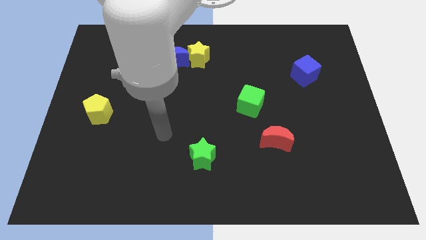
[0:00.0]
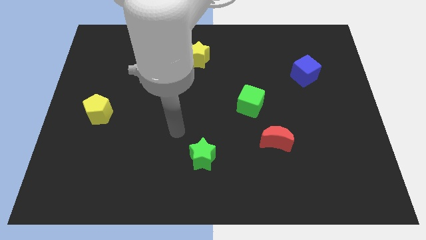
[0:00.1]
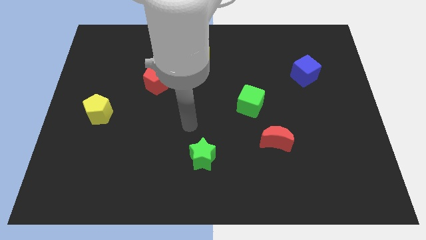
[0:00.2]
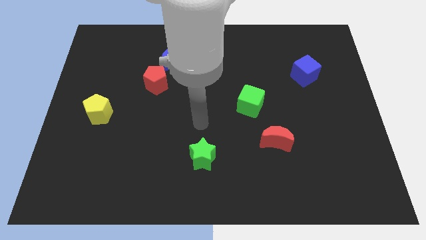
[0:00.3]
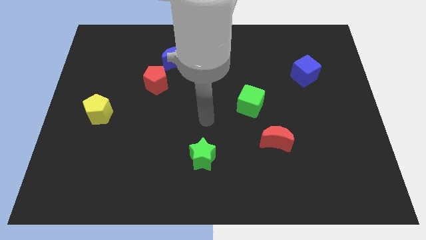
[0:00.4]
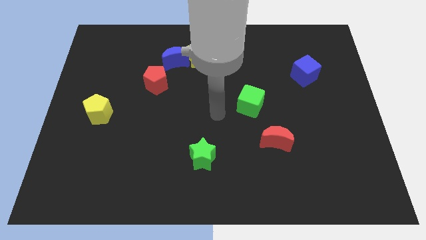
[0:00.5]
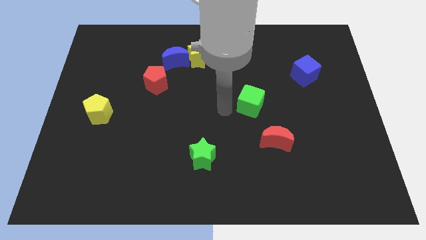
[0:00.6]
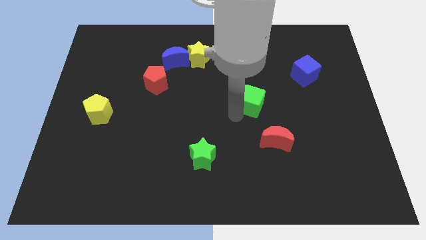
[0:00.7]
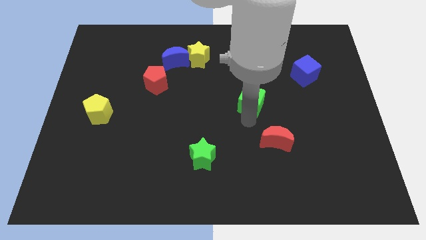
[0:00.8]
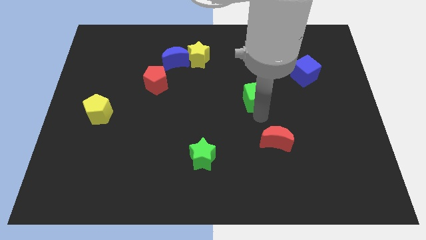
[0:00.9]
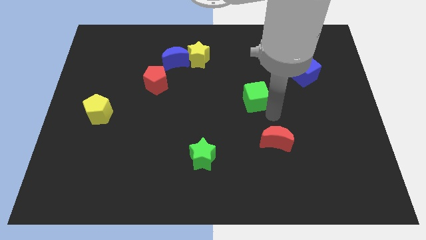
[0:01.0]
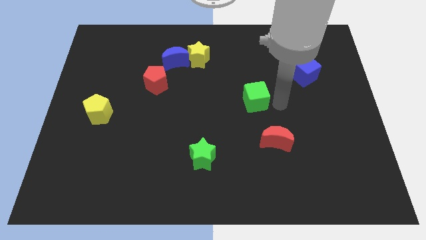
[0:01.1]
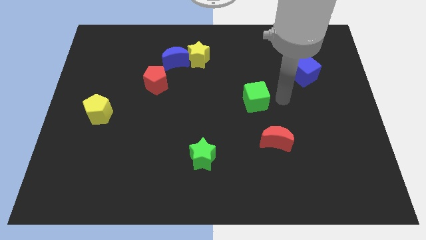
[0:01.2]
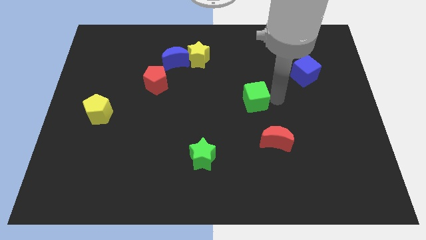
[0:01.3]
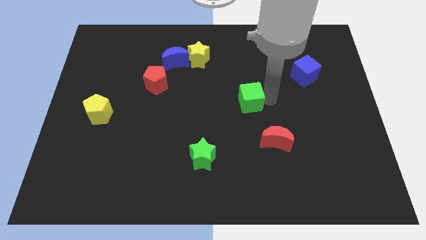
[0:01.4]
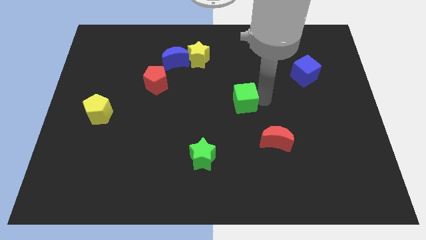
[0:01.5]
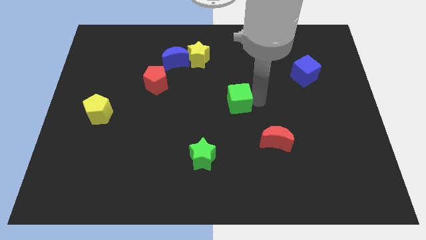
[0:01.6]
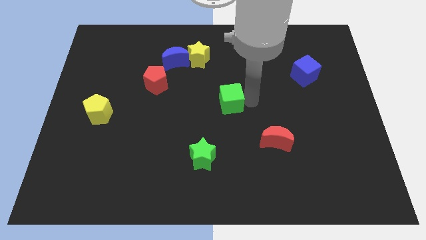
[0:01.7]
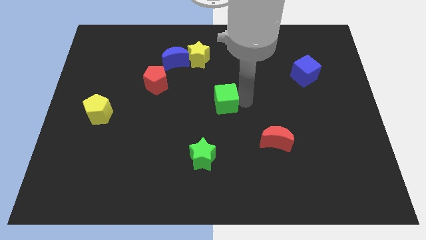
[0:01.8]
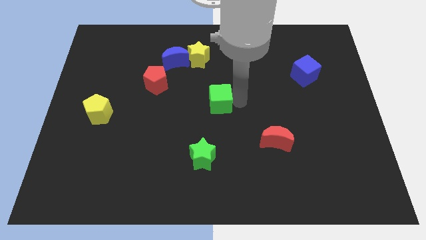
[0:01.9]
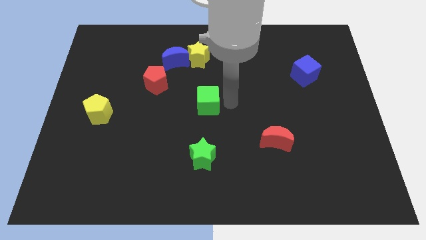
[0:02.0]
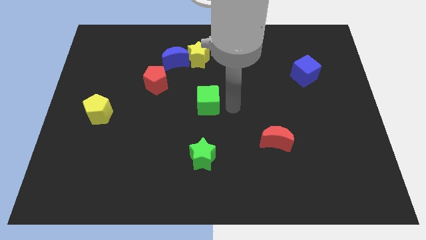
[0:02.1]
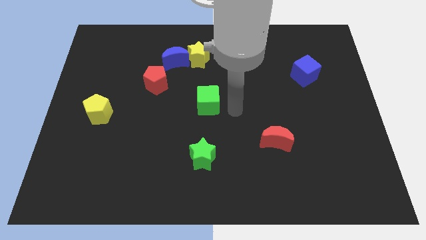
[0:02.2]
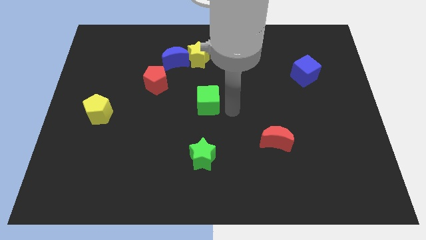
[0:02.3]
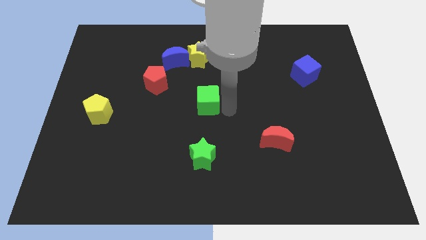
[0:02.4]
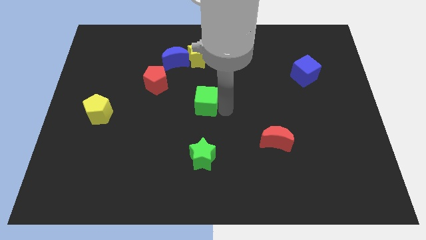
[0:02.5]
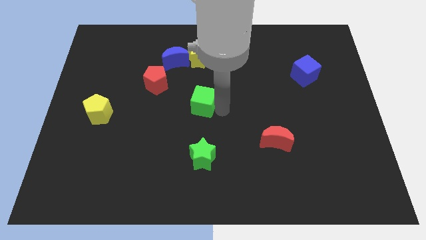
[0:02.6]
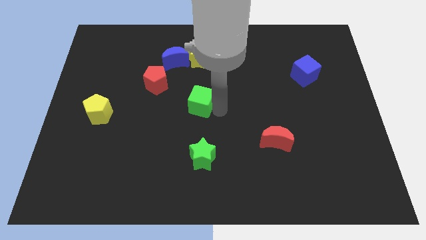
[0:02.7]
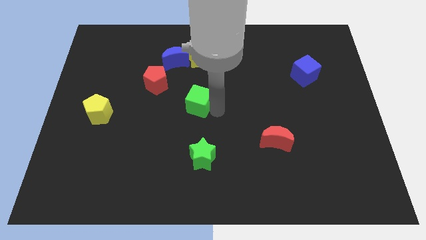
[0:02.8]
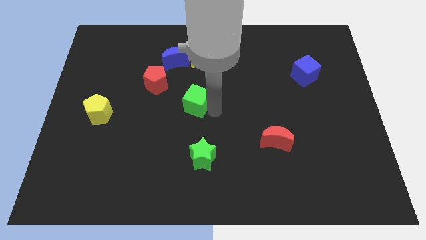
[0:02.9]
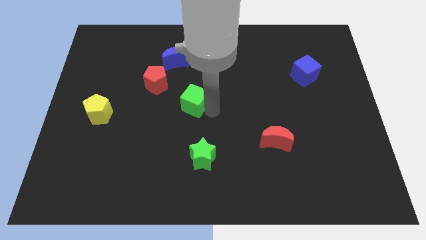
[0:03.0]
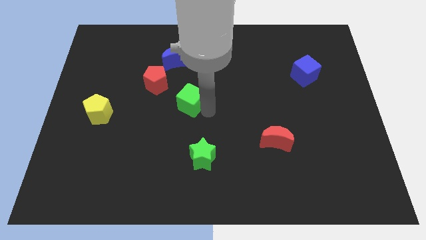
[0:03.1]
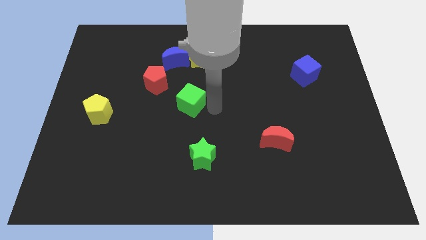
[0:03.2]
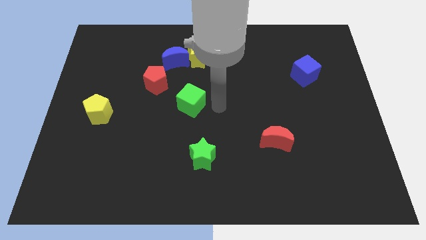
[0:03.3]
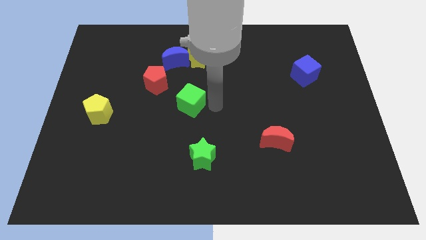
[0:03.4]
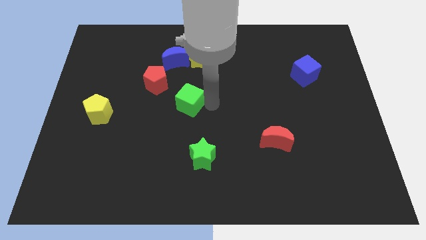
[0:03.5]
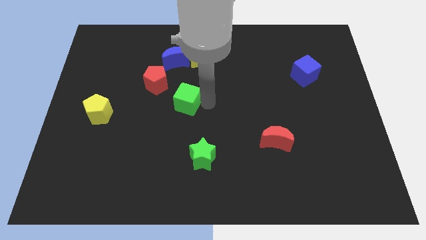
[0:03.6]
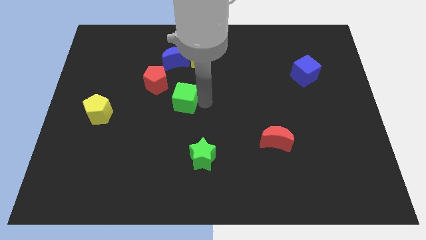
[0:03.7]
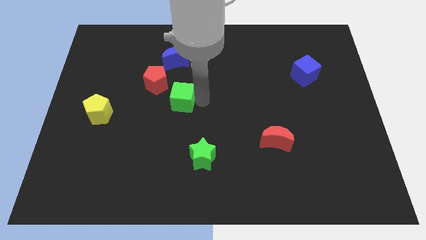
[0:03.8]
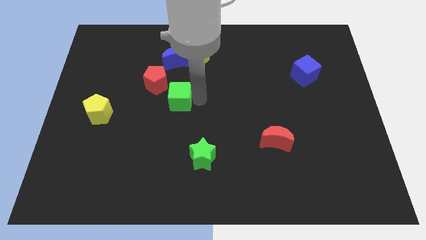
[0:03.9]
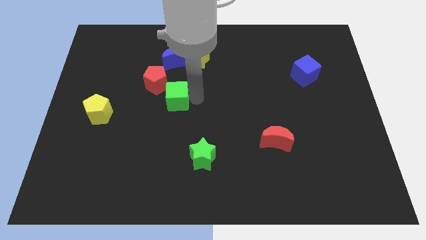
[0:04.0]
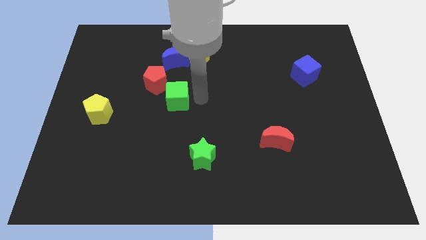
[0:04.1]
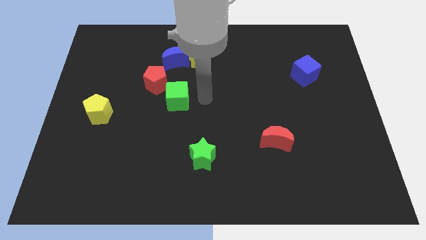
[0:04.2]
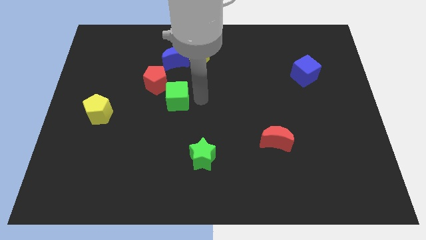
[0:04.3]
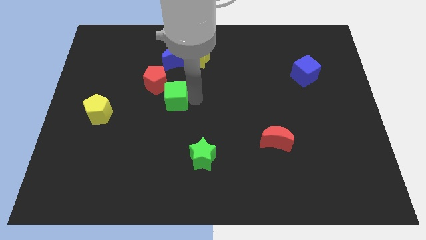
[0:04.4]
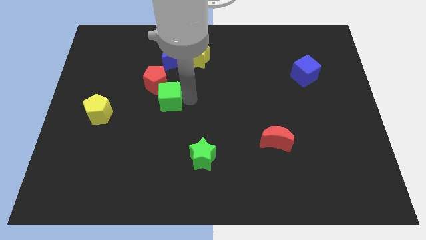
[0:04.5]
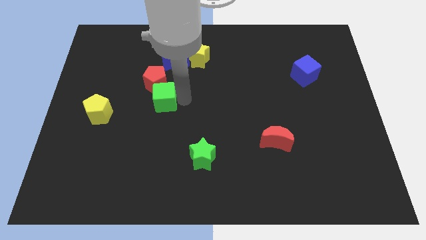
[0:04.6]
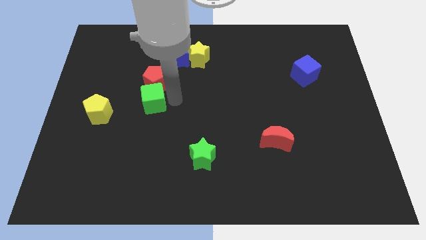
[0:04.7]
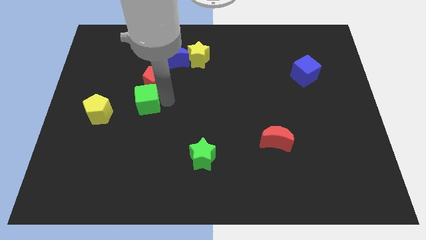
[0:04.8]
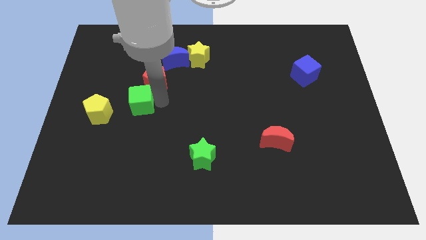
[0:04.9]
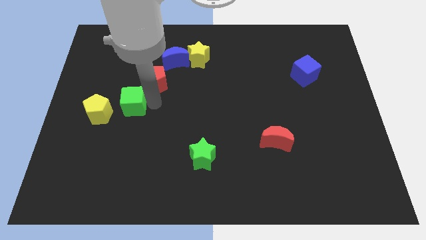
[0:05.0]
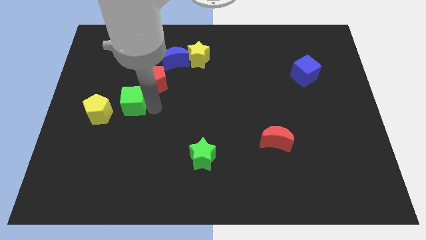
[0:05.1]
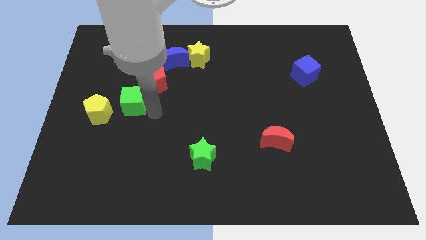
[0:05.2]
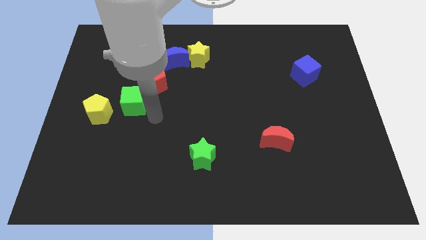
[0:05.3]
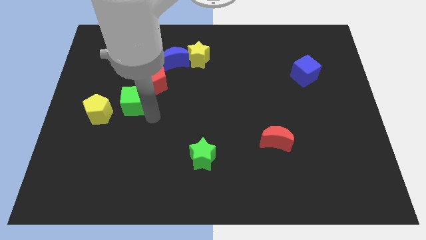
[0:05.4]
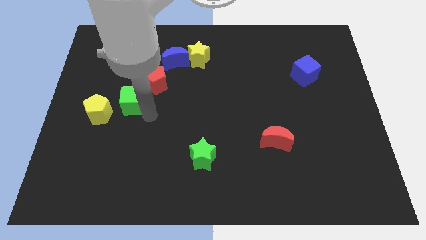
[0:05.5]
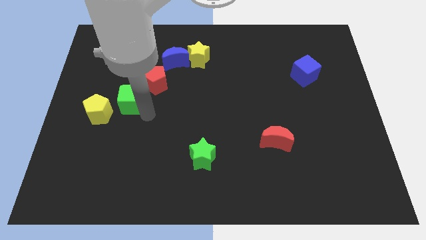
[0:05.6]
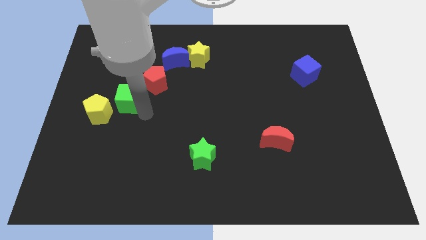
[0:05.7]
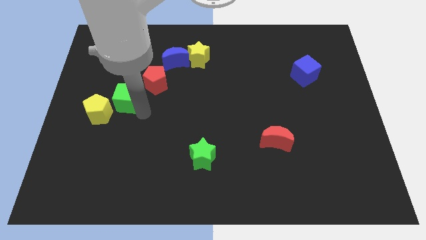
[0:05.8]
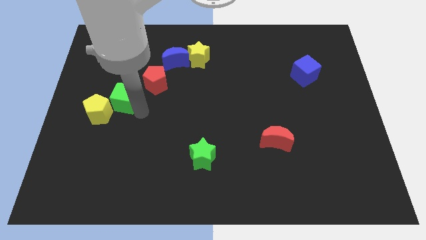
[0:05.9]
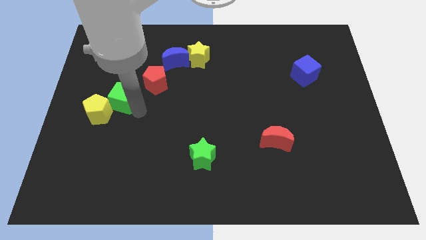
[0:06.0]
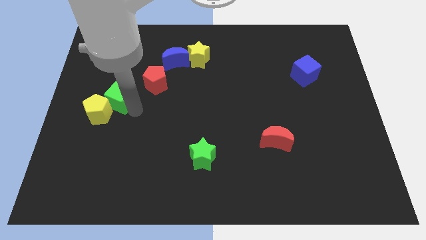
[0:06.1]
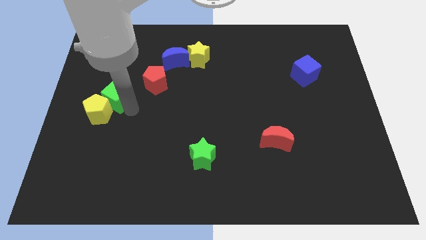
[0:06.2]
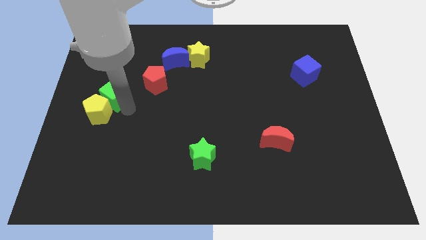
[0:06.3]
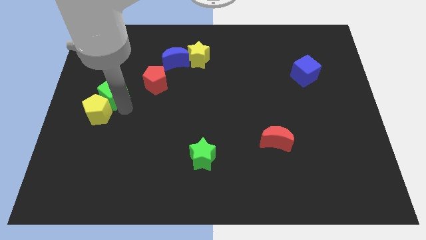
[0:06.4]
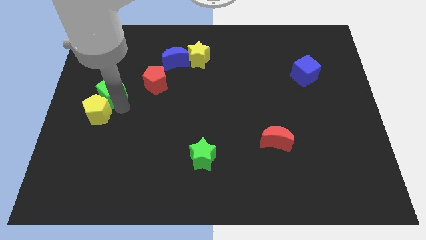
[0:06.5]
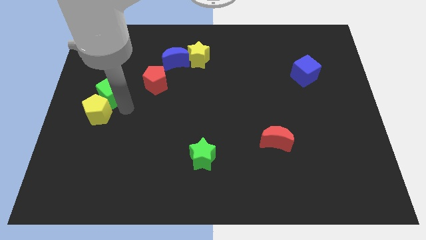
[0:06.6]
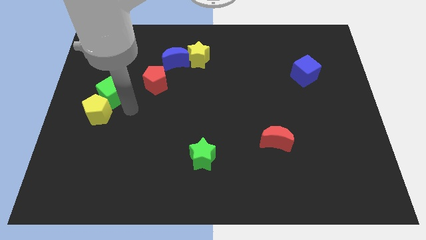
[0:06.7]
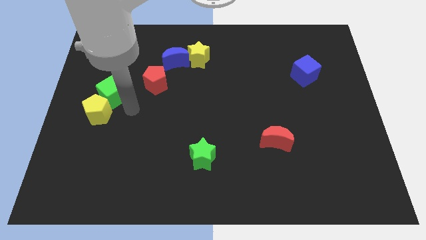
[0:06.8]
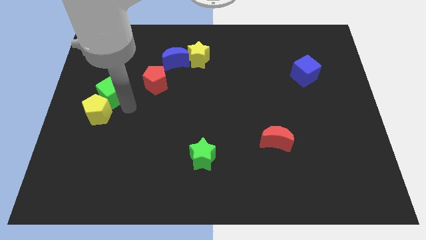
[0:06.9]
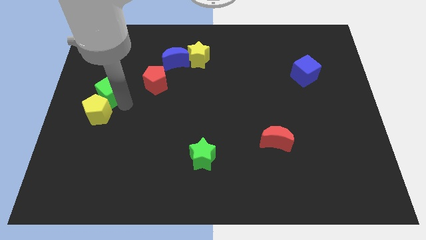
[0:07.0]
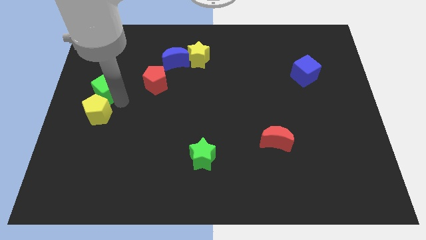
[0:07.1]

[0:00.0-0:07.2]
slide the green cube to the left side

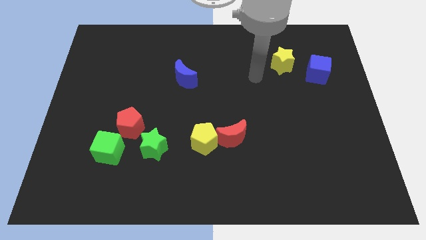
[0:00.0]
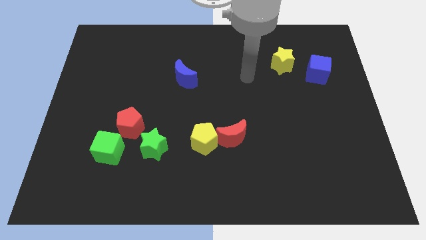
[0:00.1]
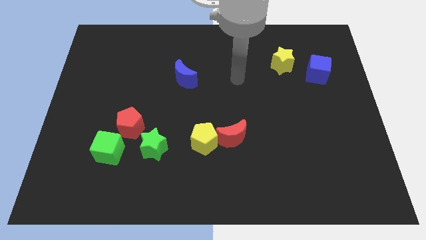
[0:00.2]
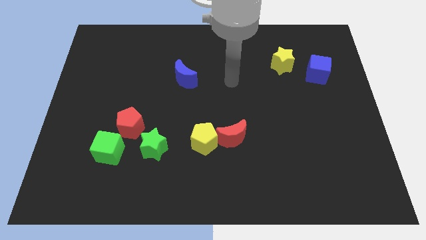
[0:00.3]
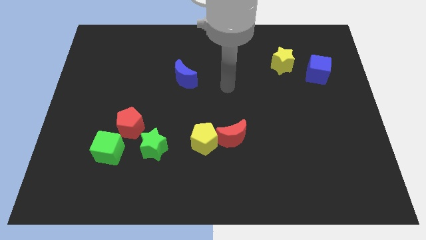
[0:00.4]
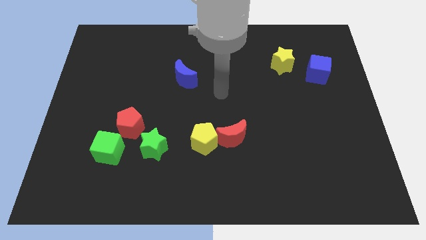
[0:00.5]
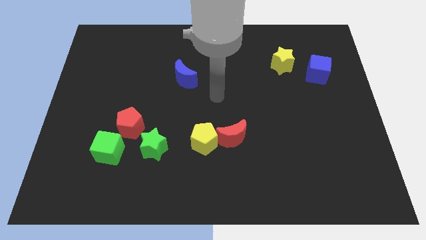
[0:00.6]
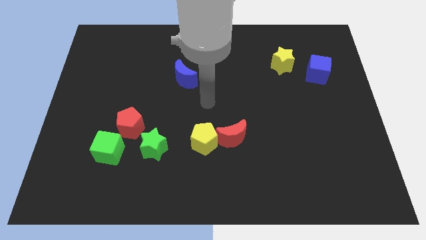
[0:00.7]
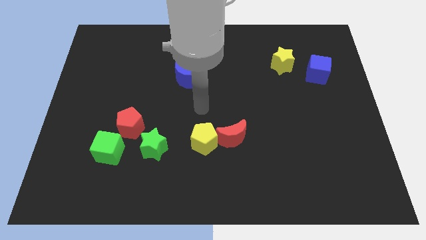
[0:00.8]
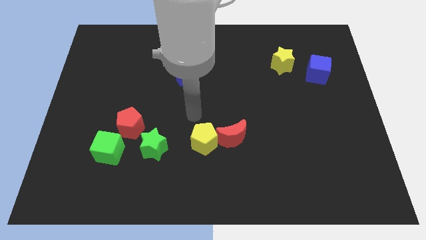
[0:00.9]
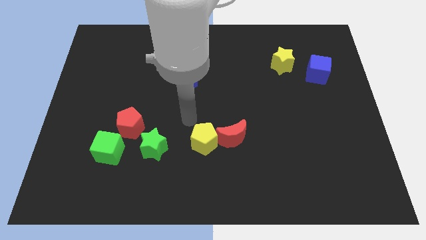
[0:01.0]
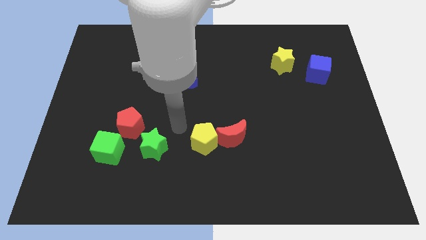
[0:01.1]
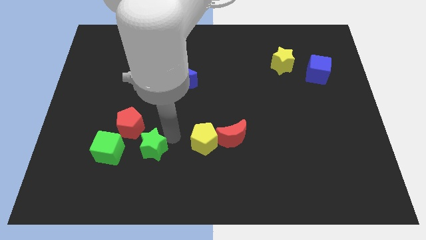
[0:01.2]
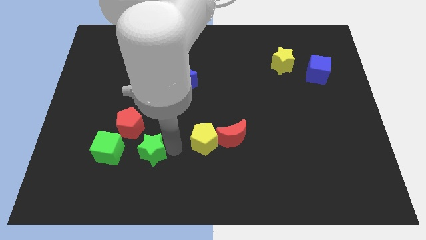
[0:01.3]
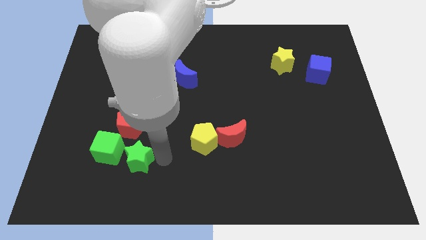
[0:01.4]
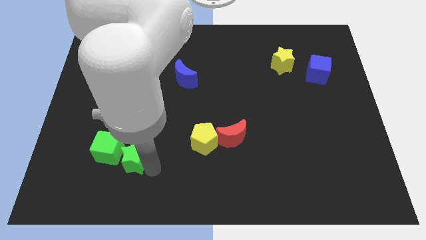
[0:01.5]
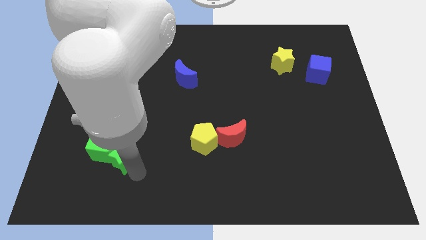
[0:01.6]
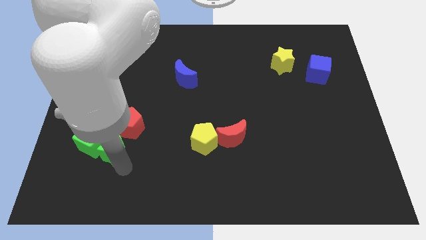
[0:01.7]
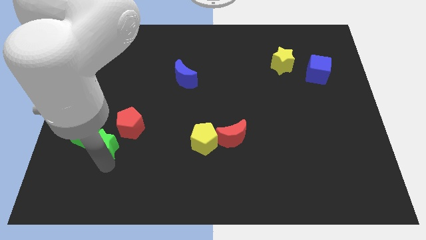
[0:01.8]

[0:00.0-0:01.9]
push the green cube to the center left
